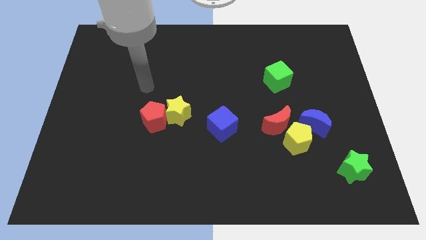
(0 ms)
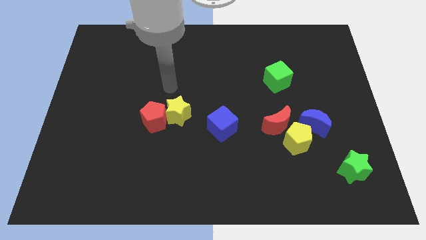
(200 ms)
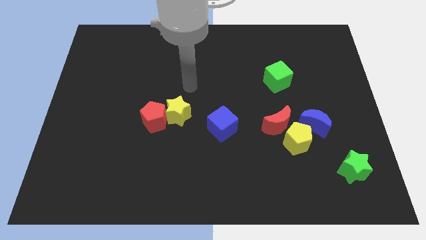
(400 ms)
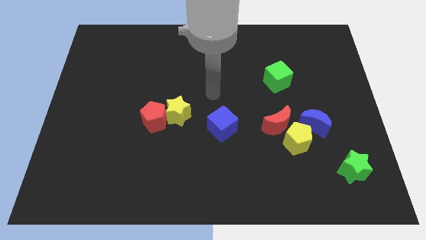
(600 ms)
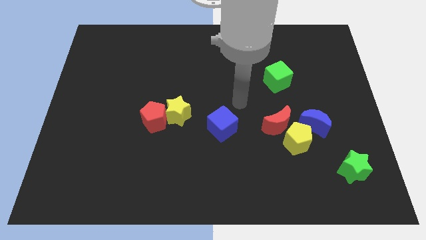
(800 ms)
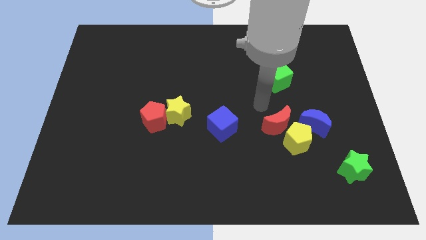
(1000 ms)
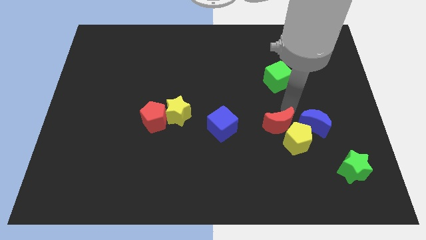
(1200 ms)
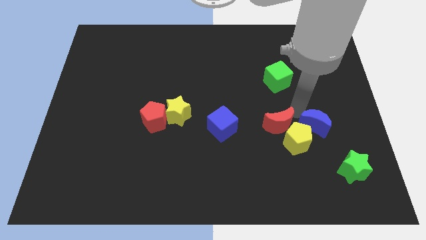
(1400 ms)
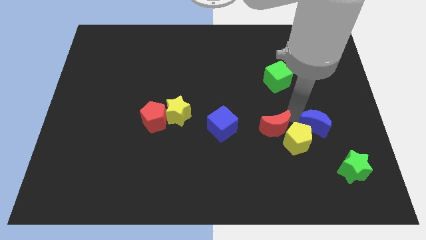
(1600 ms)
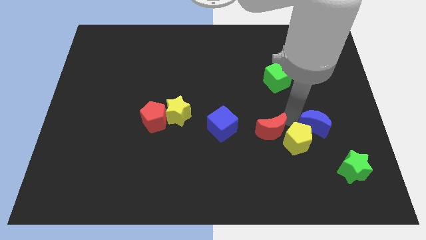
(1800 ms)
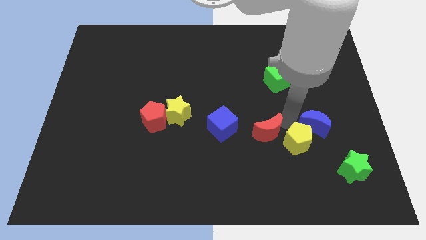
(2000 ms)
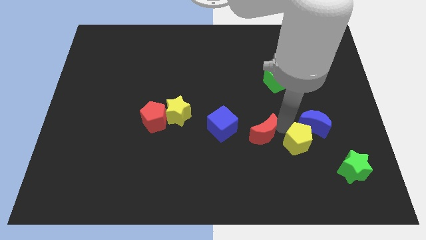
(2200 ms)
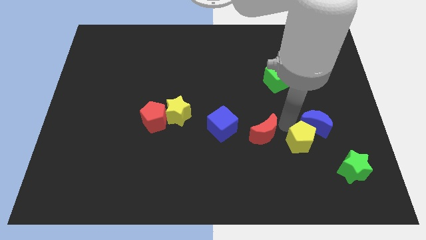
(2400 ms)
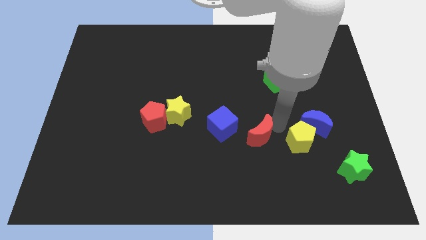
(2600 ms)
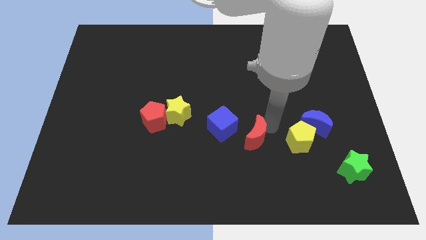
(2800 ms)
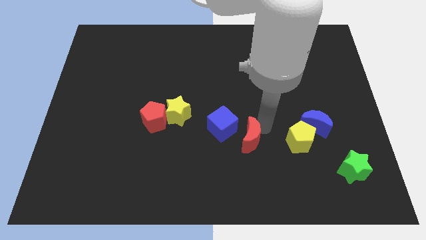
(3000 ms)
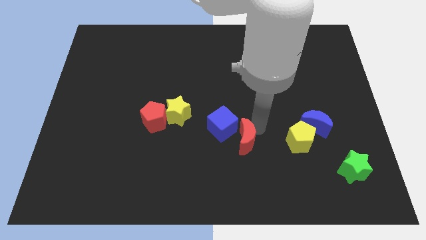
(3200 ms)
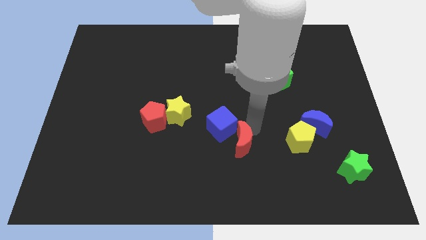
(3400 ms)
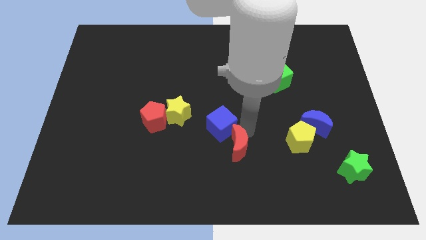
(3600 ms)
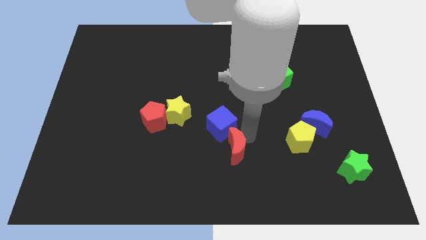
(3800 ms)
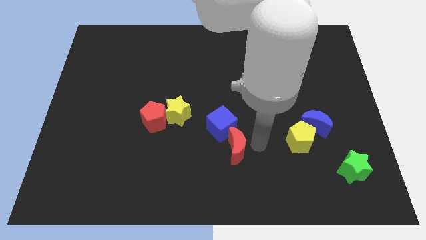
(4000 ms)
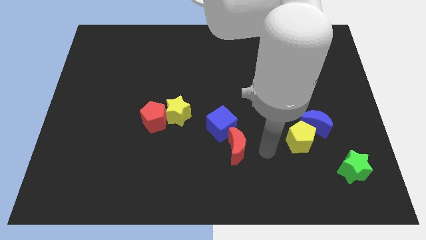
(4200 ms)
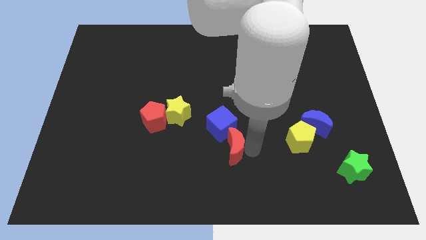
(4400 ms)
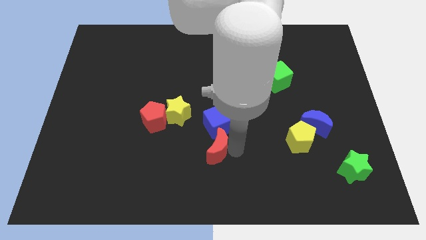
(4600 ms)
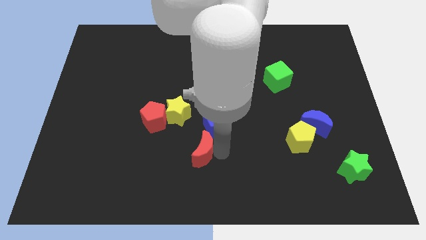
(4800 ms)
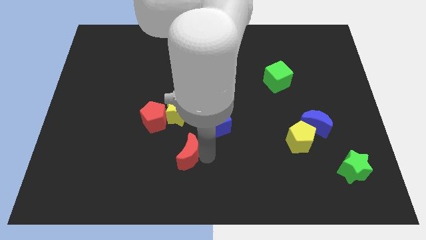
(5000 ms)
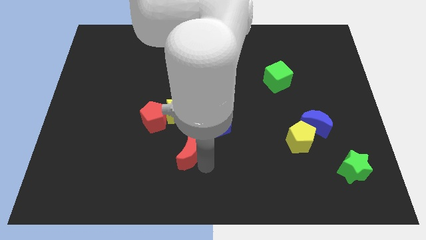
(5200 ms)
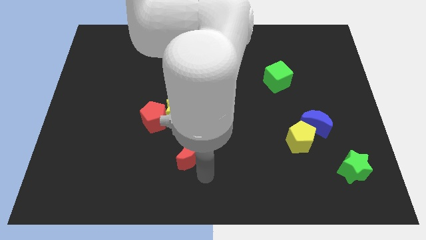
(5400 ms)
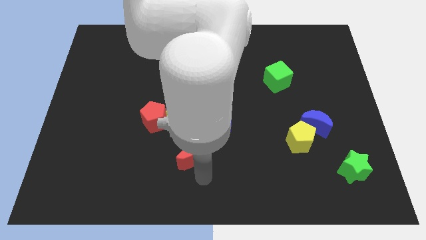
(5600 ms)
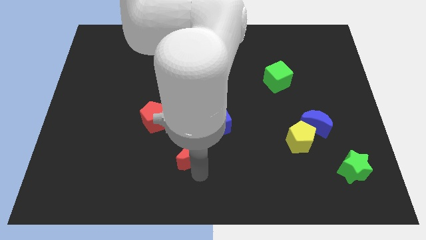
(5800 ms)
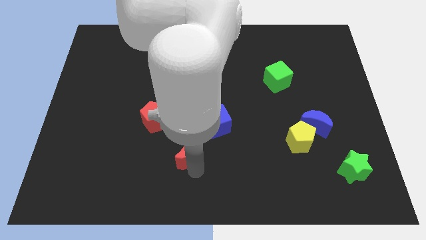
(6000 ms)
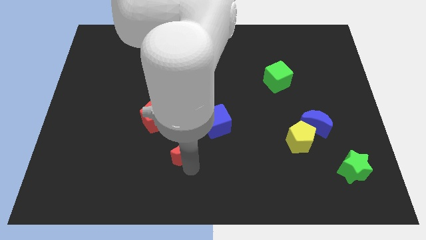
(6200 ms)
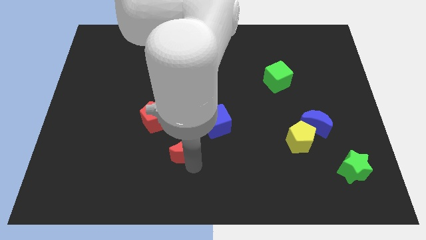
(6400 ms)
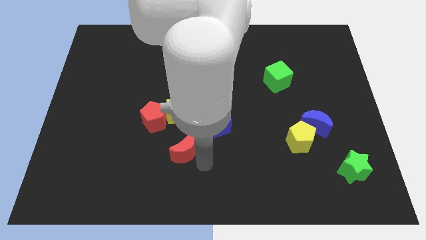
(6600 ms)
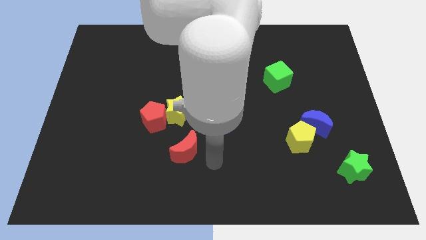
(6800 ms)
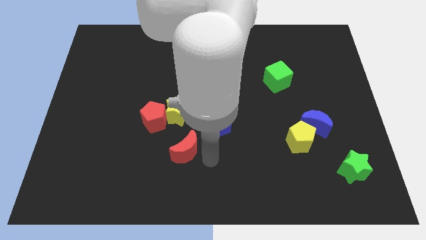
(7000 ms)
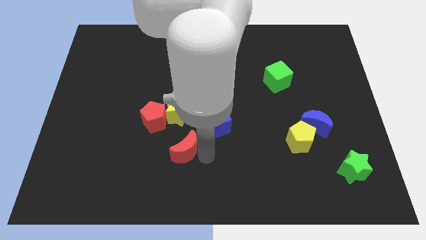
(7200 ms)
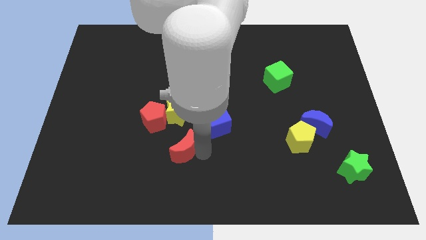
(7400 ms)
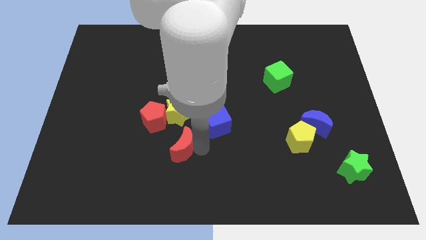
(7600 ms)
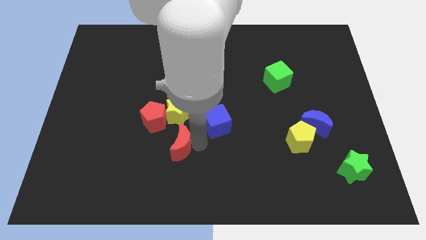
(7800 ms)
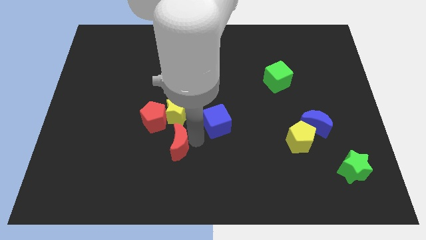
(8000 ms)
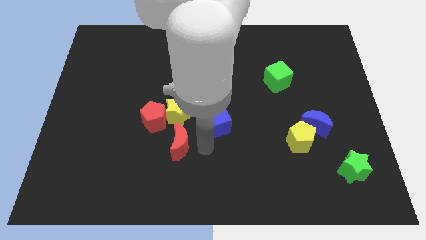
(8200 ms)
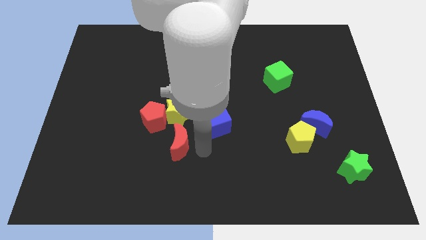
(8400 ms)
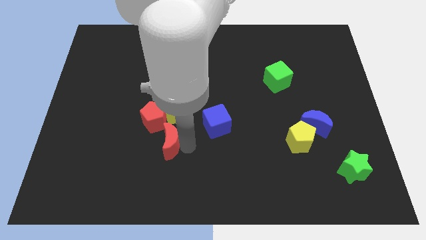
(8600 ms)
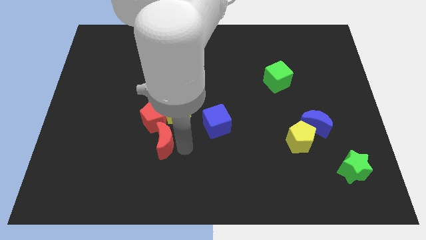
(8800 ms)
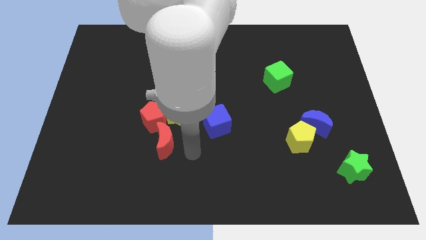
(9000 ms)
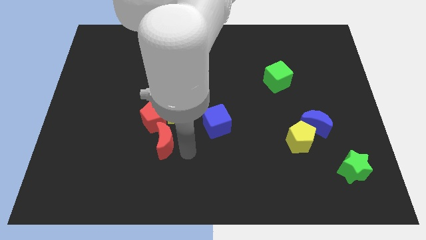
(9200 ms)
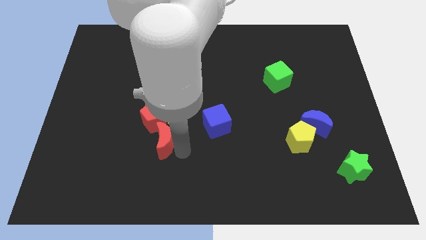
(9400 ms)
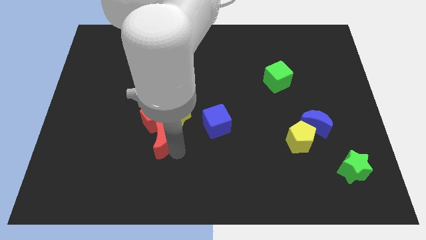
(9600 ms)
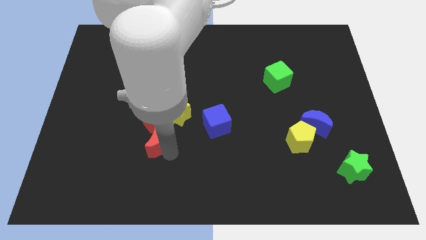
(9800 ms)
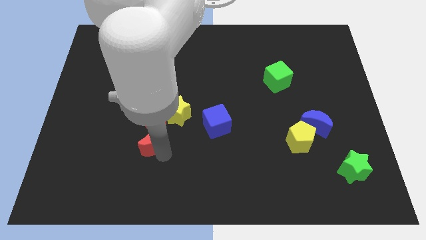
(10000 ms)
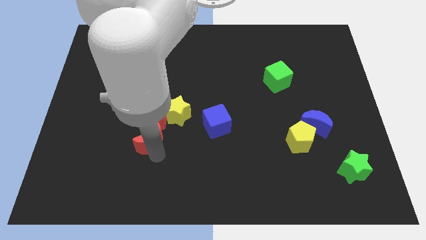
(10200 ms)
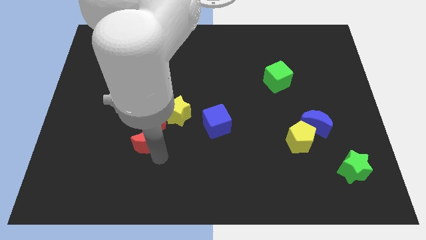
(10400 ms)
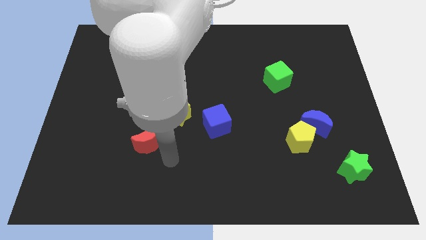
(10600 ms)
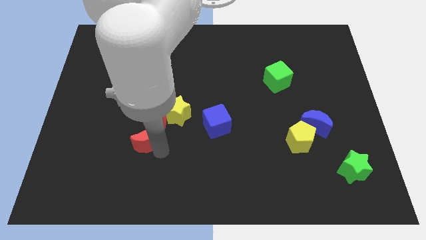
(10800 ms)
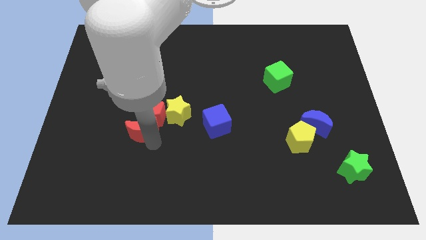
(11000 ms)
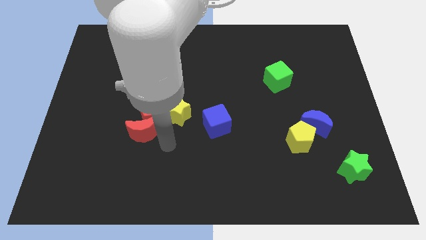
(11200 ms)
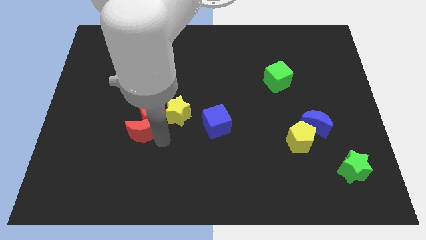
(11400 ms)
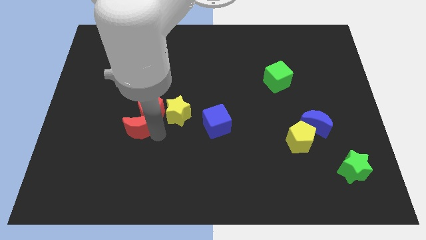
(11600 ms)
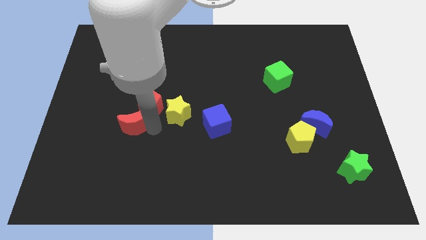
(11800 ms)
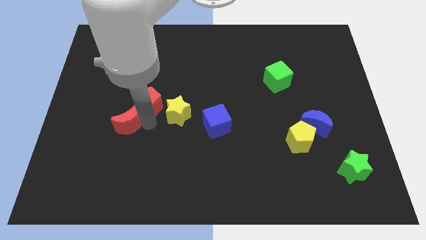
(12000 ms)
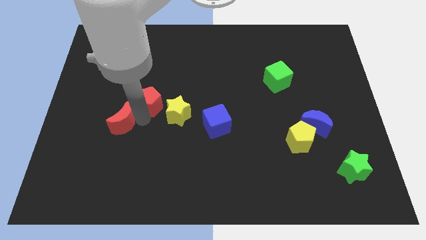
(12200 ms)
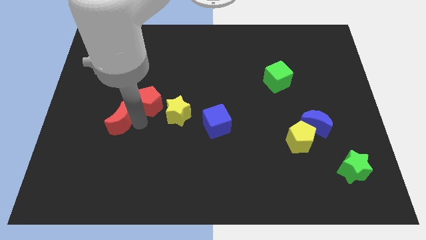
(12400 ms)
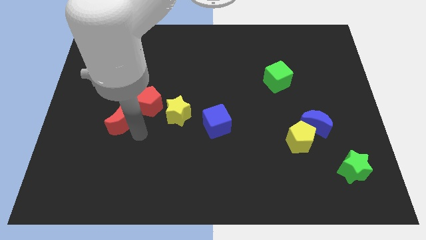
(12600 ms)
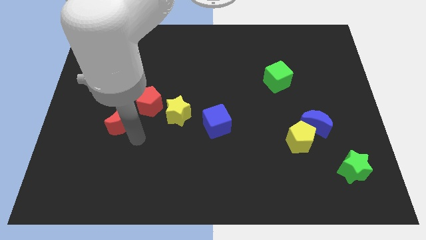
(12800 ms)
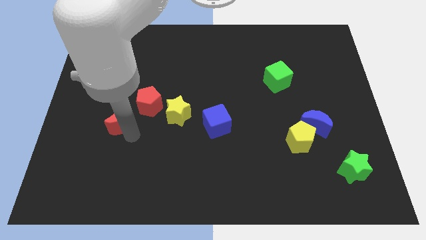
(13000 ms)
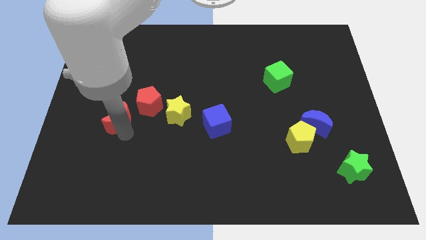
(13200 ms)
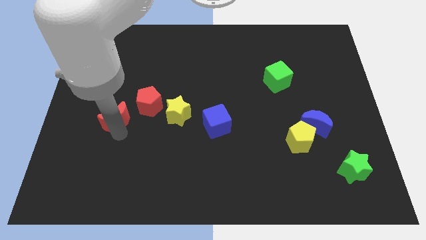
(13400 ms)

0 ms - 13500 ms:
move the red moon left of the red pentagon

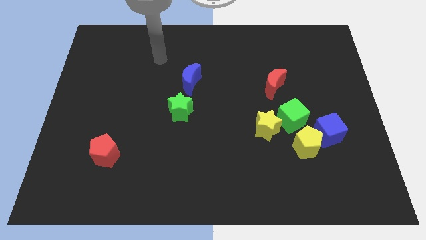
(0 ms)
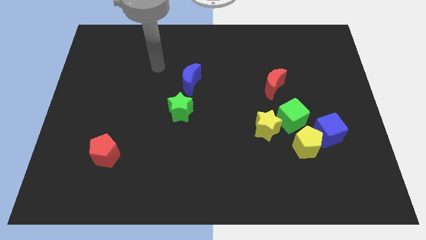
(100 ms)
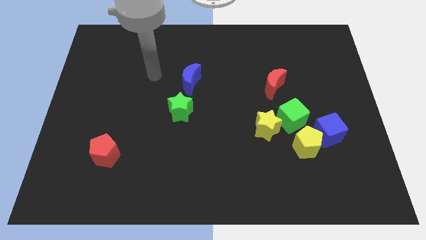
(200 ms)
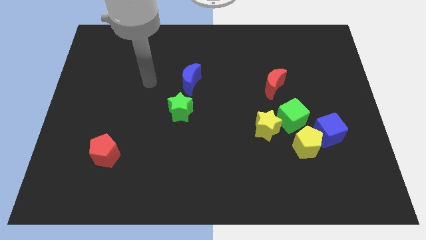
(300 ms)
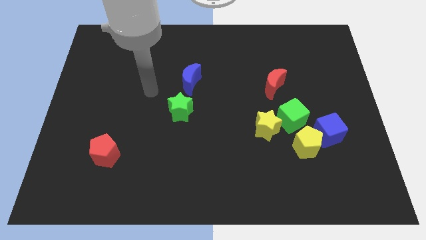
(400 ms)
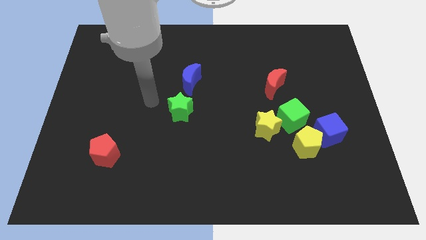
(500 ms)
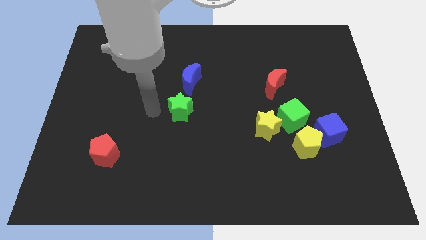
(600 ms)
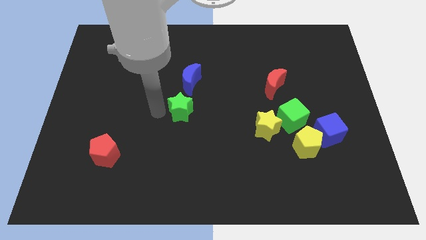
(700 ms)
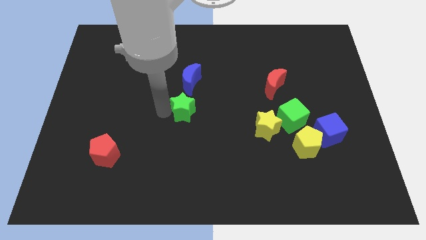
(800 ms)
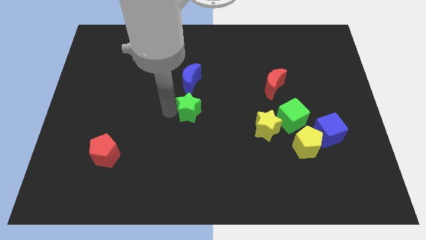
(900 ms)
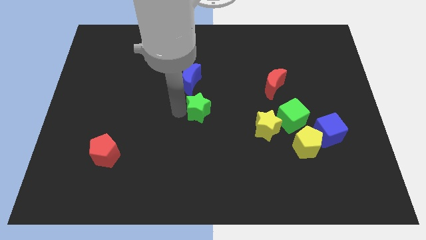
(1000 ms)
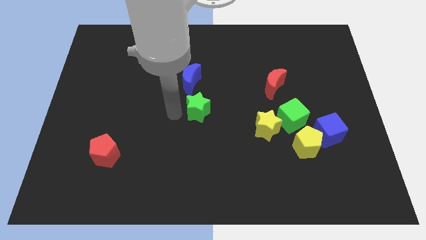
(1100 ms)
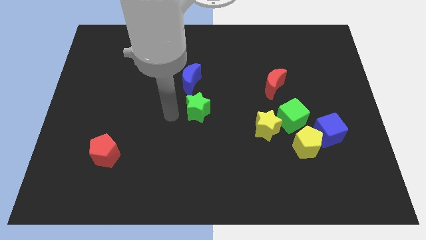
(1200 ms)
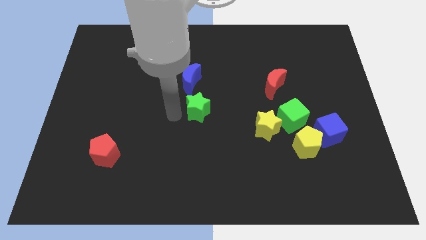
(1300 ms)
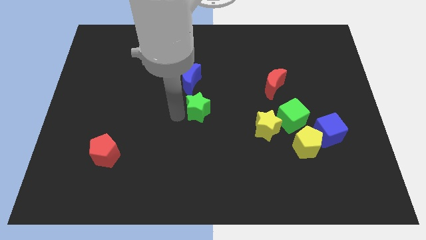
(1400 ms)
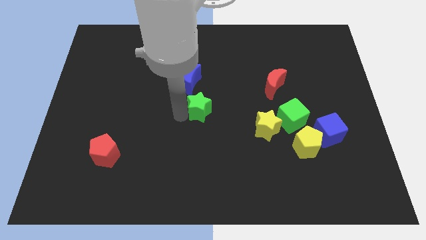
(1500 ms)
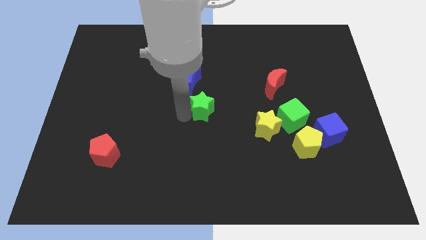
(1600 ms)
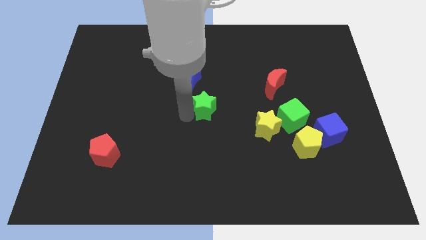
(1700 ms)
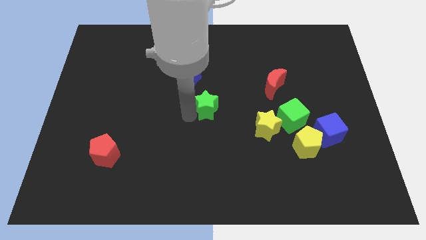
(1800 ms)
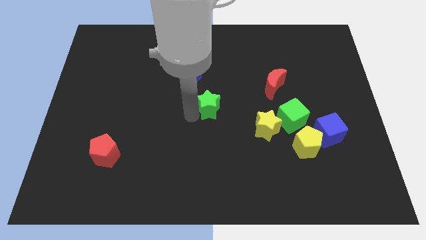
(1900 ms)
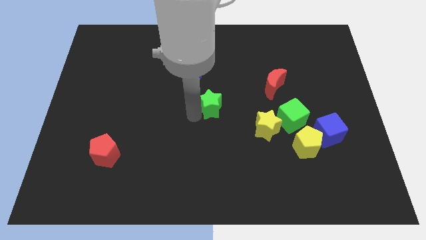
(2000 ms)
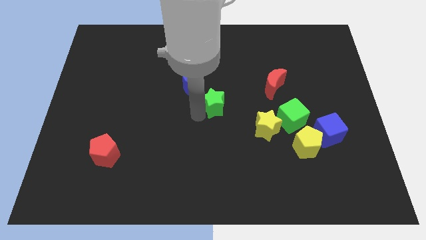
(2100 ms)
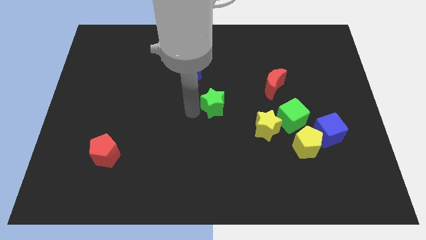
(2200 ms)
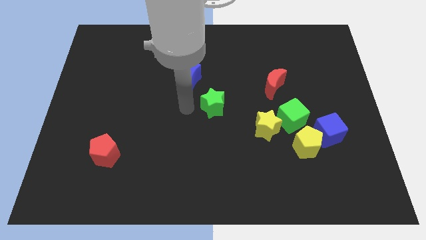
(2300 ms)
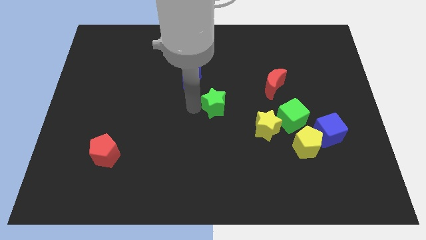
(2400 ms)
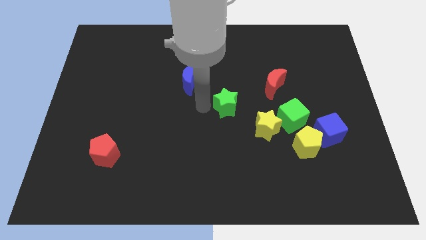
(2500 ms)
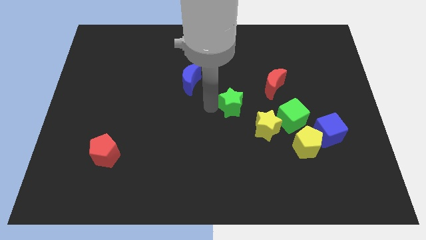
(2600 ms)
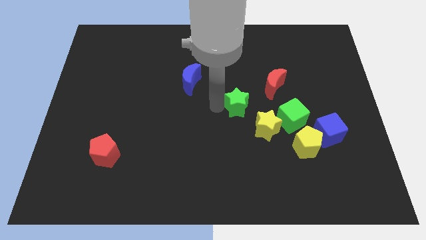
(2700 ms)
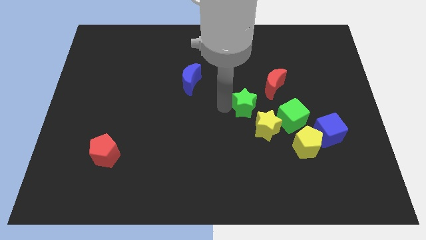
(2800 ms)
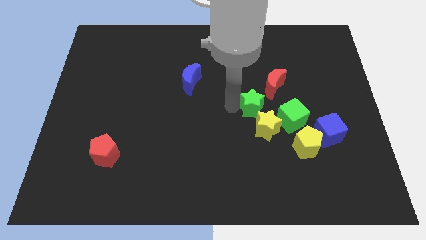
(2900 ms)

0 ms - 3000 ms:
push the green star diagonally up and to the left of the green cube
